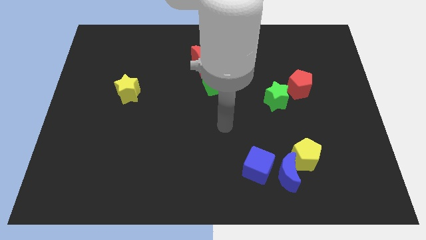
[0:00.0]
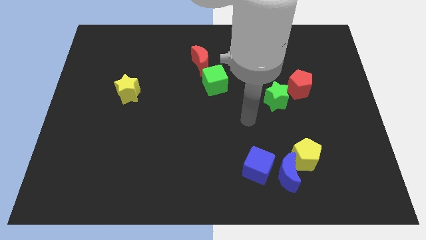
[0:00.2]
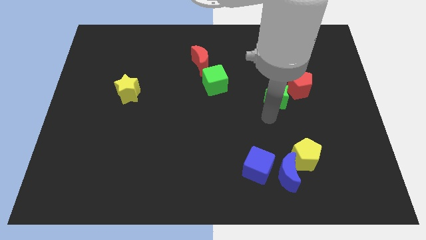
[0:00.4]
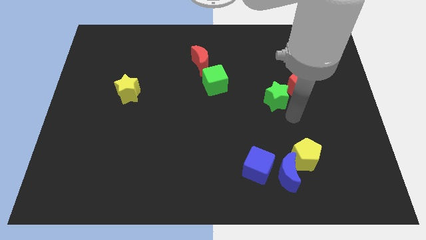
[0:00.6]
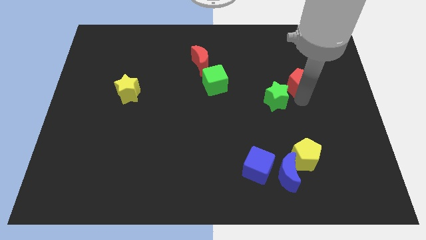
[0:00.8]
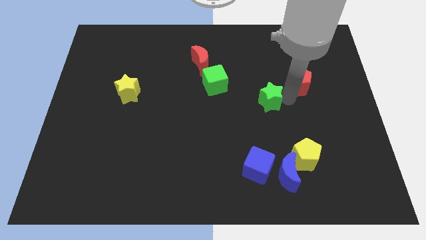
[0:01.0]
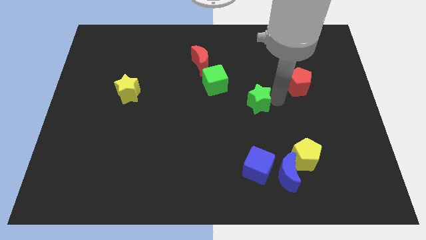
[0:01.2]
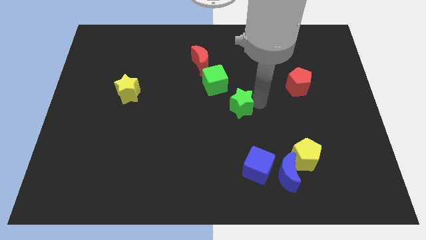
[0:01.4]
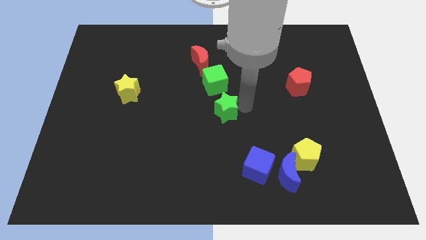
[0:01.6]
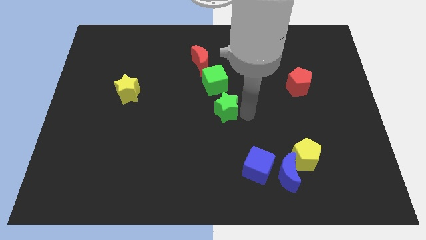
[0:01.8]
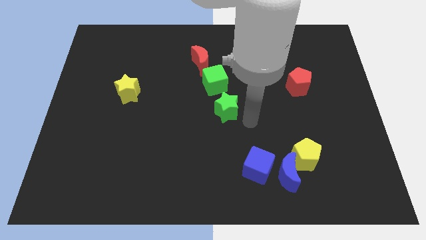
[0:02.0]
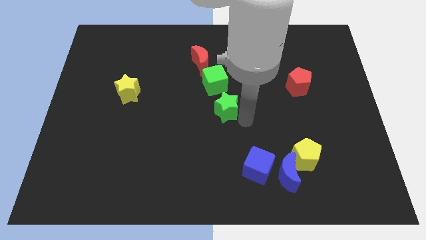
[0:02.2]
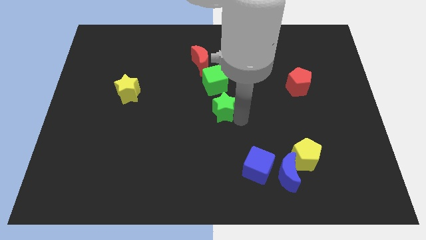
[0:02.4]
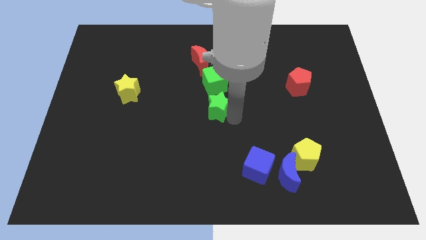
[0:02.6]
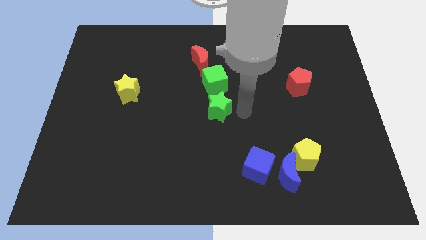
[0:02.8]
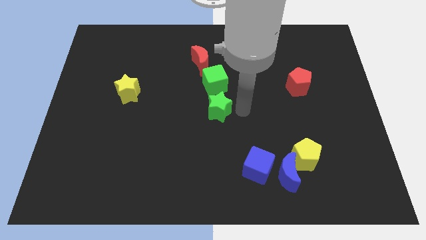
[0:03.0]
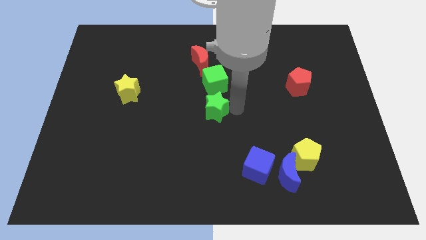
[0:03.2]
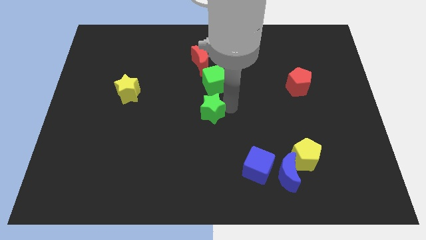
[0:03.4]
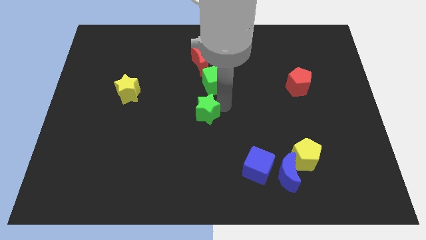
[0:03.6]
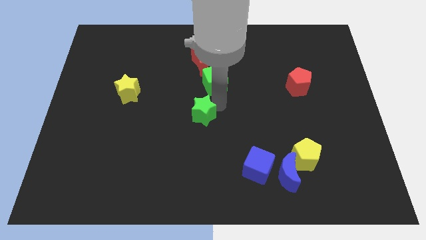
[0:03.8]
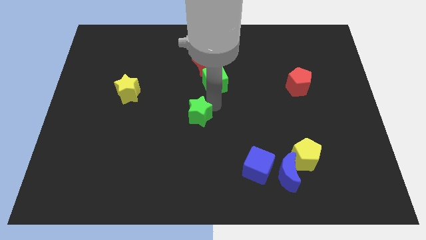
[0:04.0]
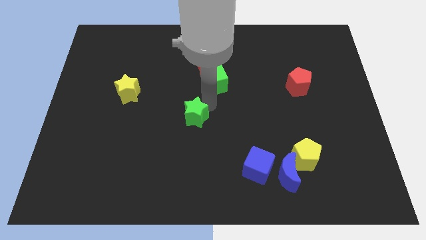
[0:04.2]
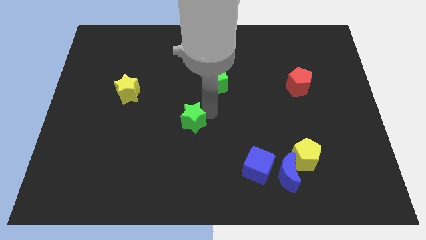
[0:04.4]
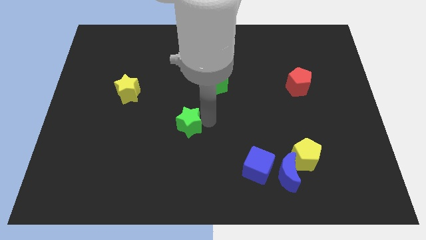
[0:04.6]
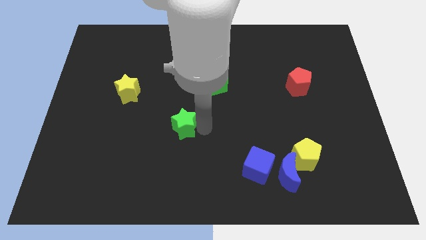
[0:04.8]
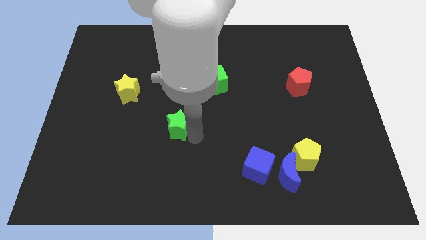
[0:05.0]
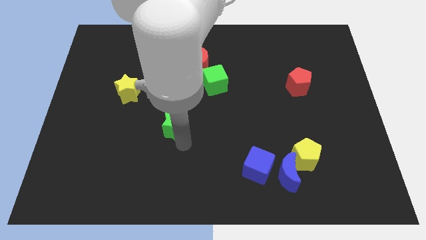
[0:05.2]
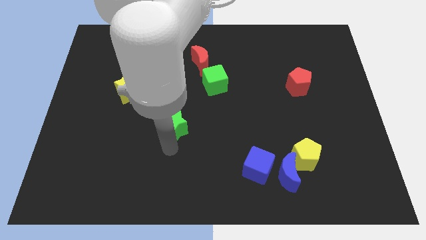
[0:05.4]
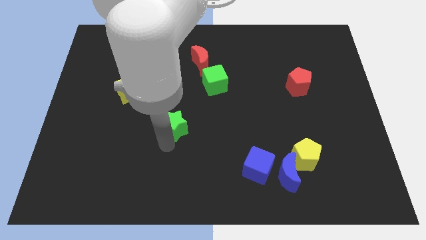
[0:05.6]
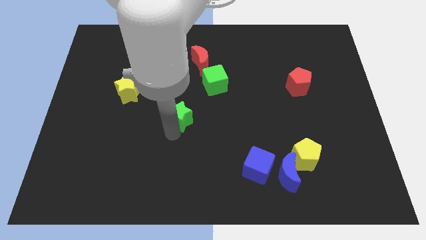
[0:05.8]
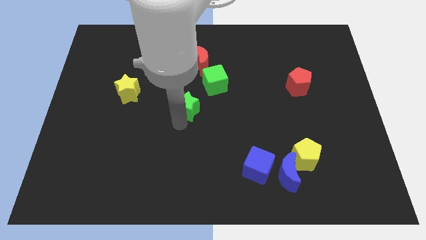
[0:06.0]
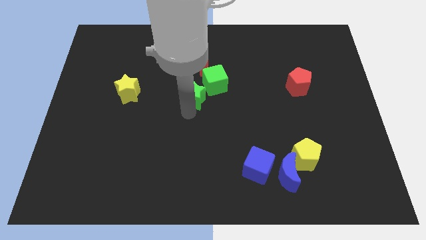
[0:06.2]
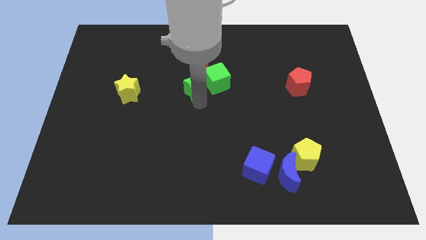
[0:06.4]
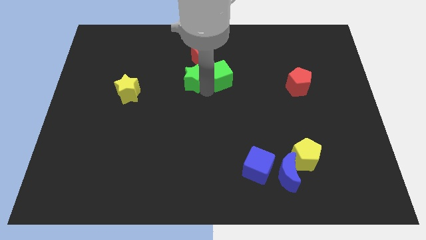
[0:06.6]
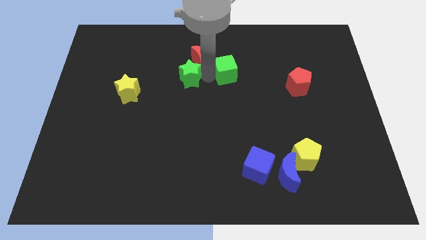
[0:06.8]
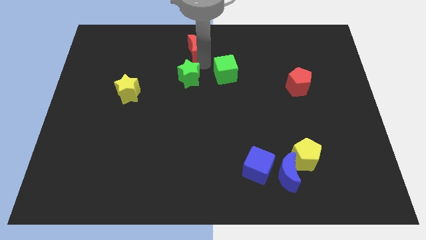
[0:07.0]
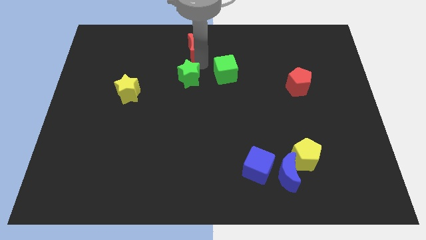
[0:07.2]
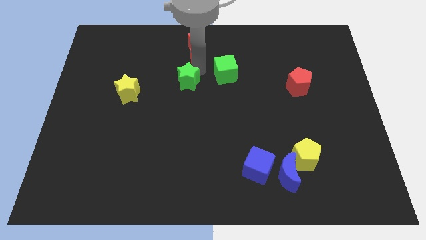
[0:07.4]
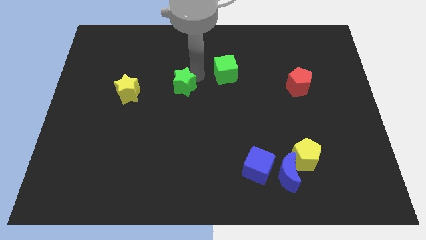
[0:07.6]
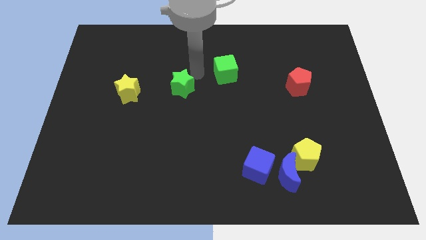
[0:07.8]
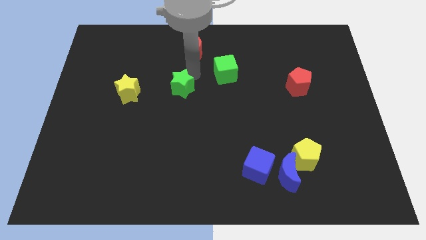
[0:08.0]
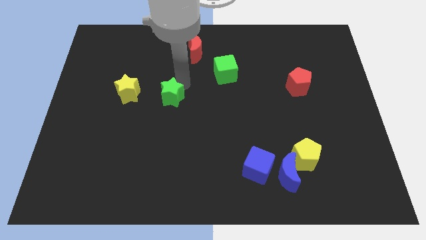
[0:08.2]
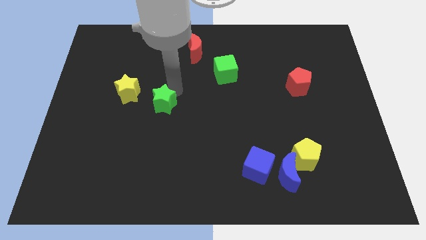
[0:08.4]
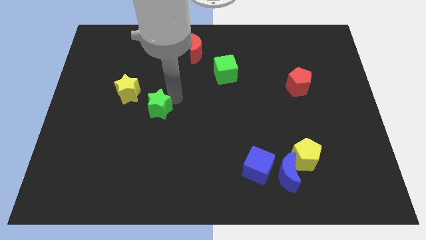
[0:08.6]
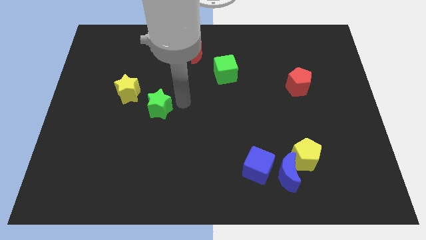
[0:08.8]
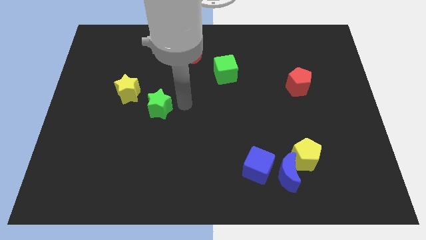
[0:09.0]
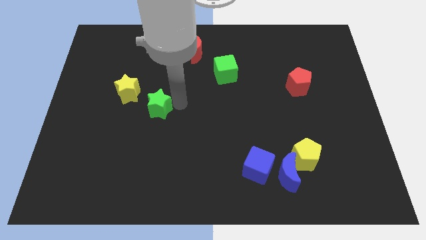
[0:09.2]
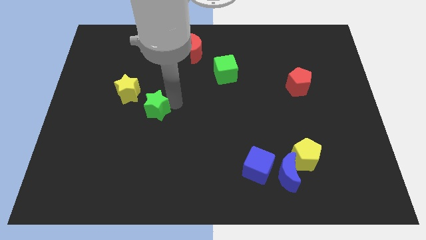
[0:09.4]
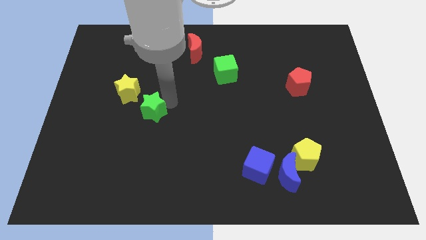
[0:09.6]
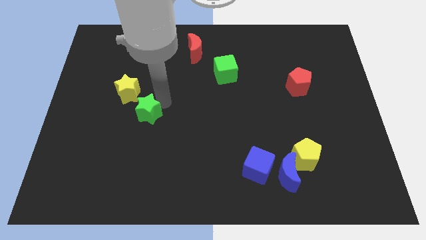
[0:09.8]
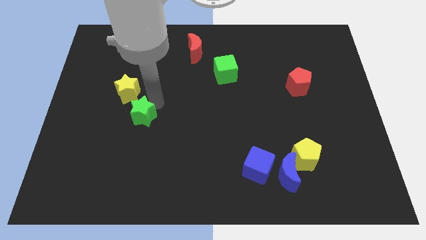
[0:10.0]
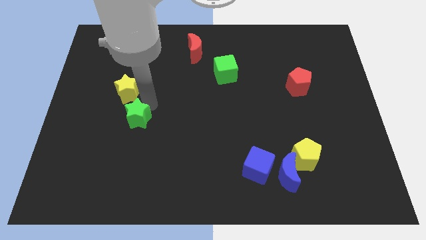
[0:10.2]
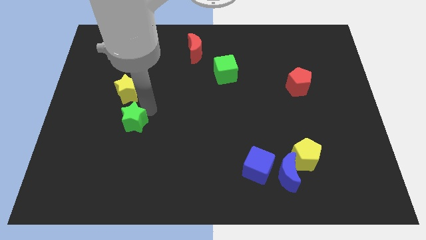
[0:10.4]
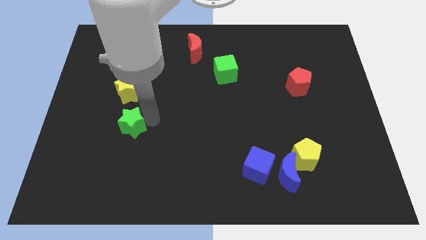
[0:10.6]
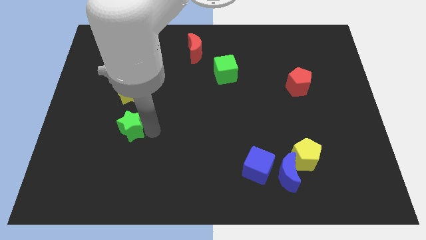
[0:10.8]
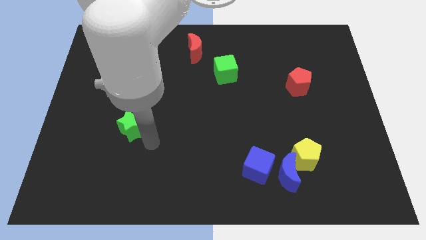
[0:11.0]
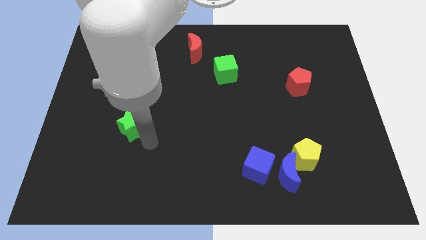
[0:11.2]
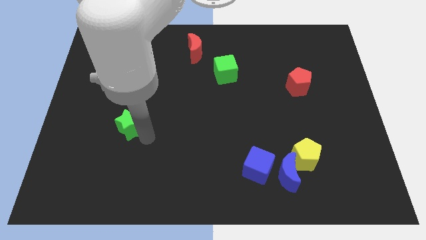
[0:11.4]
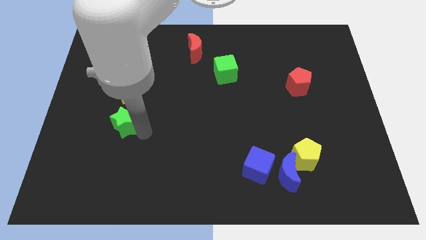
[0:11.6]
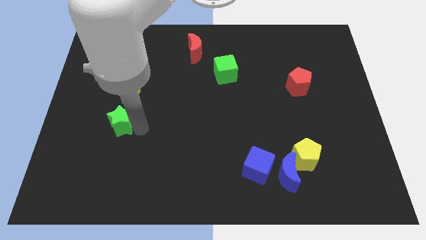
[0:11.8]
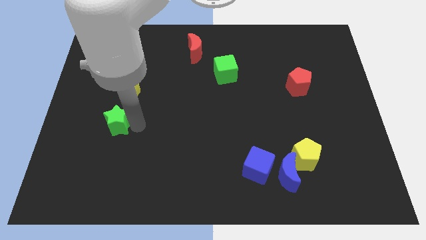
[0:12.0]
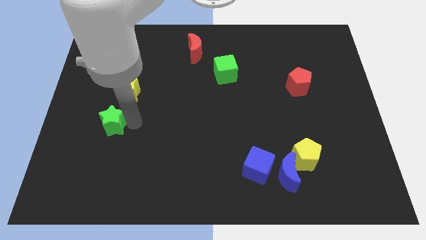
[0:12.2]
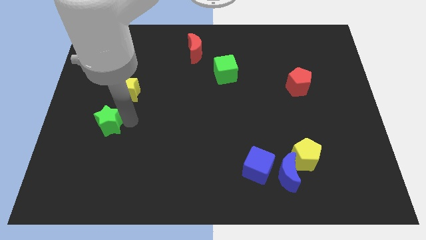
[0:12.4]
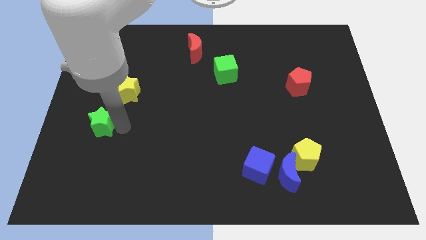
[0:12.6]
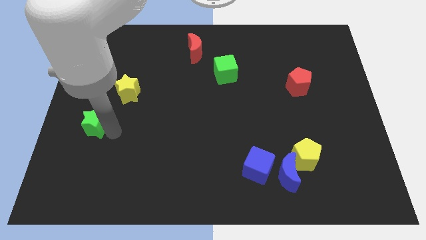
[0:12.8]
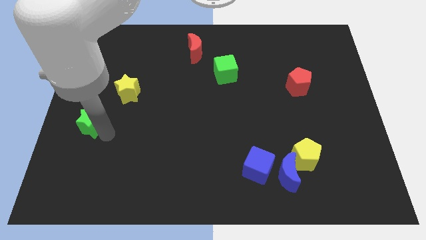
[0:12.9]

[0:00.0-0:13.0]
move the green star to the left side
